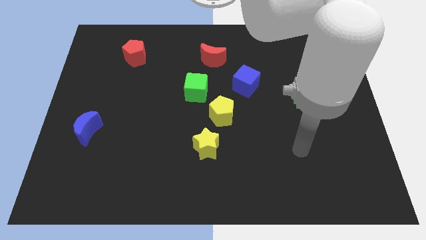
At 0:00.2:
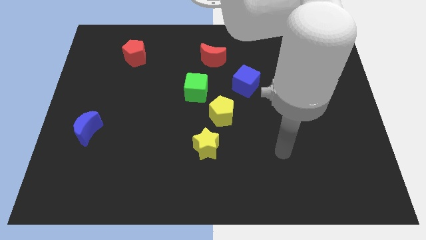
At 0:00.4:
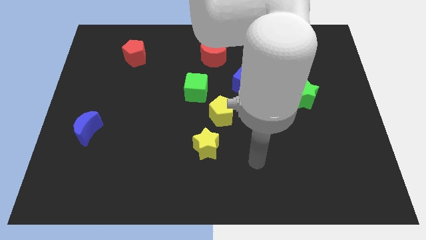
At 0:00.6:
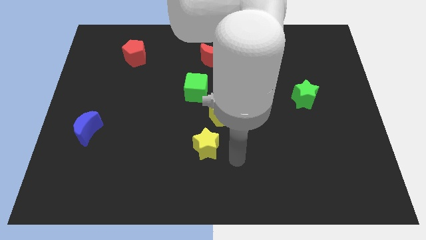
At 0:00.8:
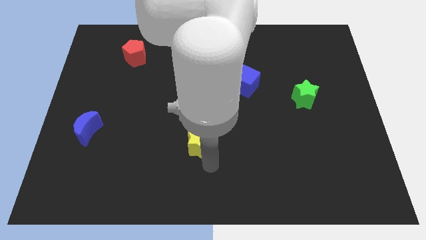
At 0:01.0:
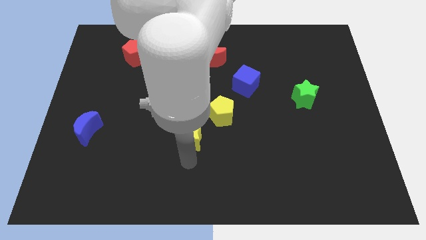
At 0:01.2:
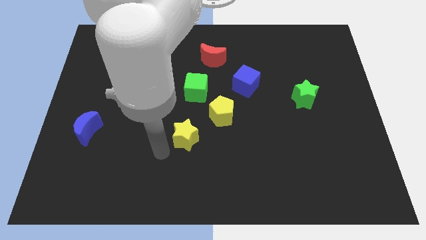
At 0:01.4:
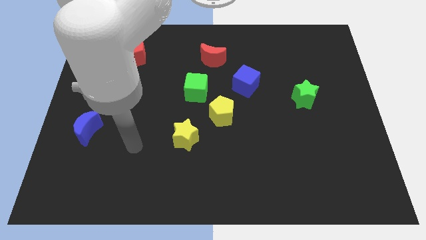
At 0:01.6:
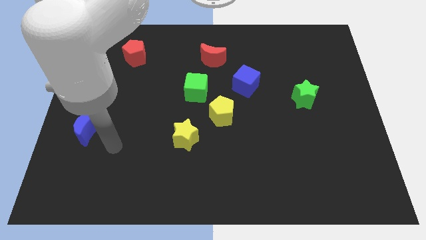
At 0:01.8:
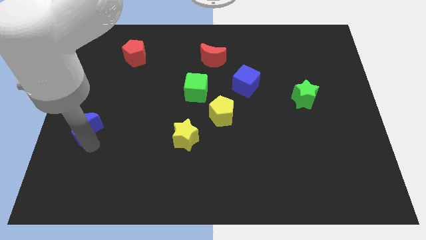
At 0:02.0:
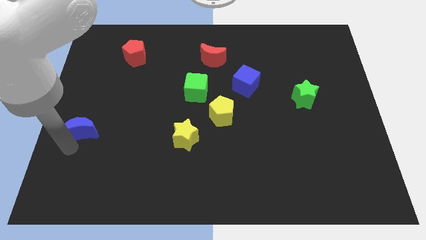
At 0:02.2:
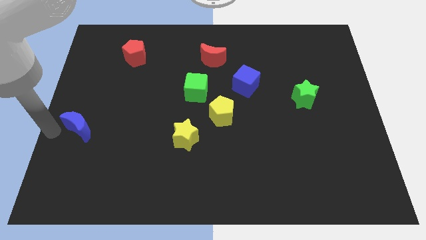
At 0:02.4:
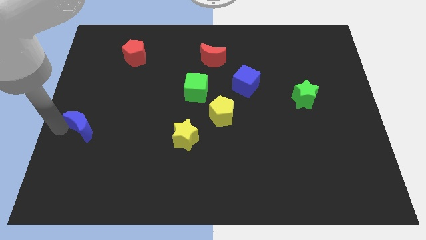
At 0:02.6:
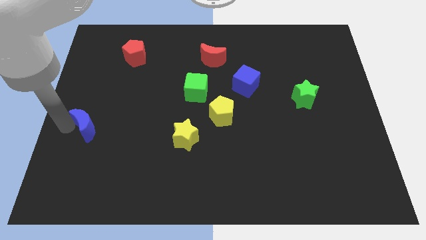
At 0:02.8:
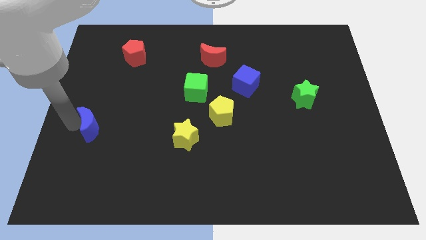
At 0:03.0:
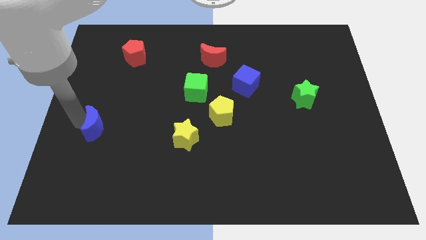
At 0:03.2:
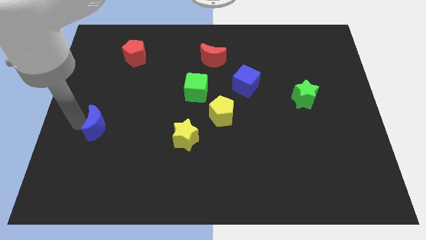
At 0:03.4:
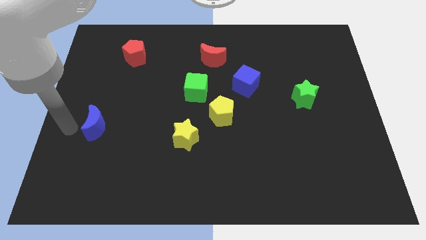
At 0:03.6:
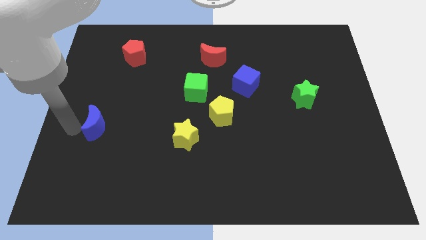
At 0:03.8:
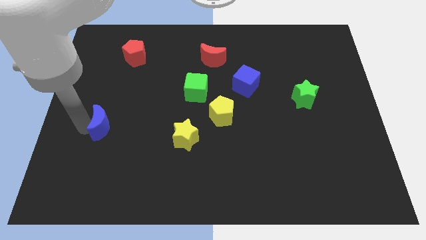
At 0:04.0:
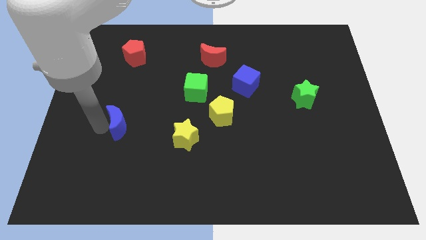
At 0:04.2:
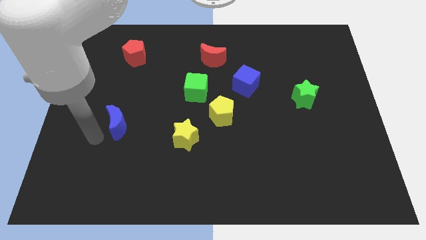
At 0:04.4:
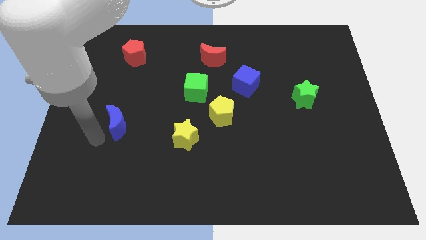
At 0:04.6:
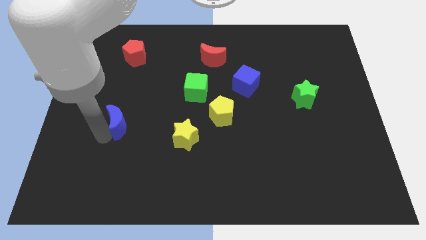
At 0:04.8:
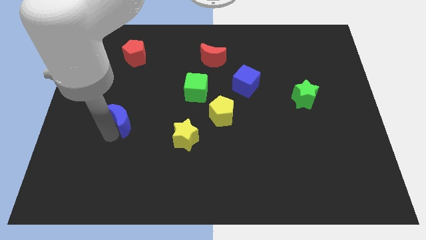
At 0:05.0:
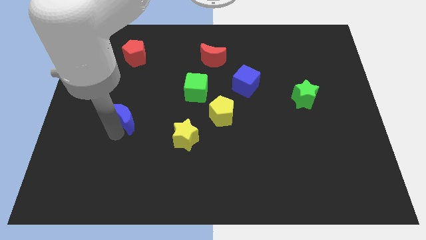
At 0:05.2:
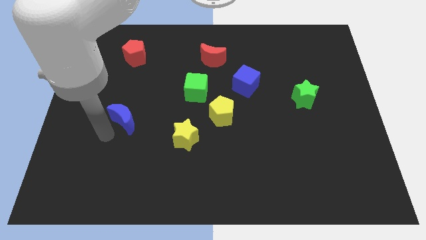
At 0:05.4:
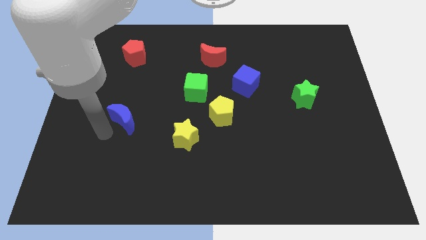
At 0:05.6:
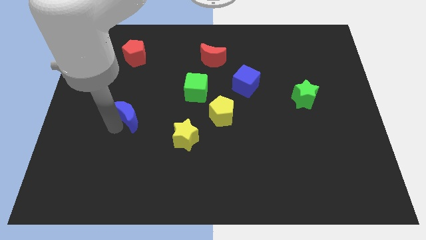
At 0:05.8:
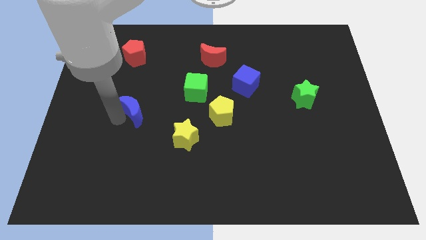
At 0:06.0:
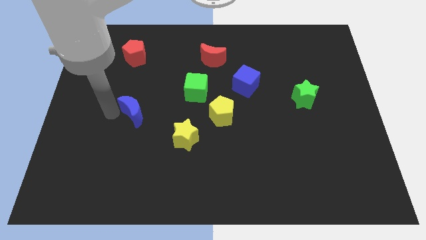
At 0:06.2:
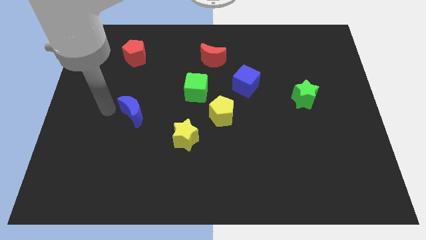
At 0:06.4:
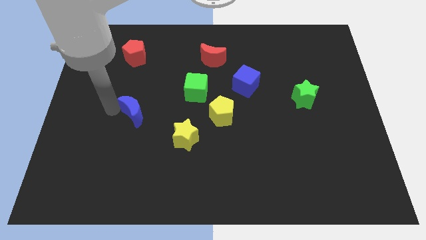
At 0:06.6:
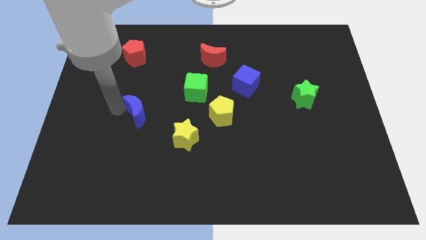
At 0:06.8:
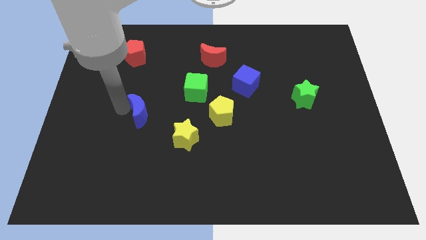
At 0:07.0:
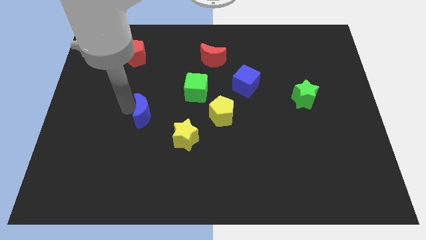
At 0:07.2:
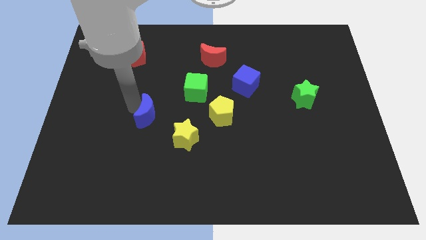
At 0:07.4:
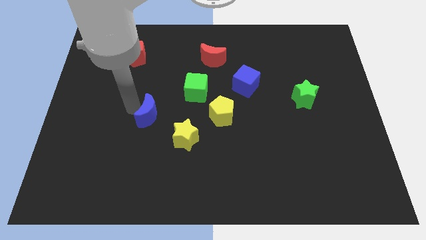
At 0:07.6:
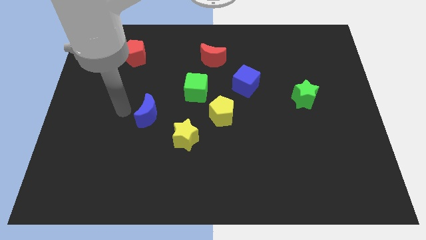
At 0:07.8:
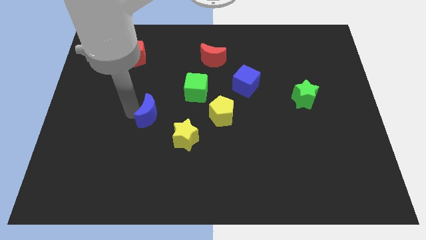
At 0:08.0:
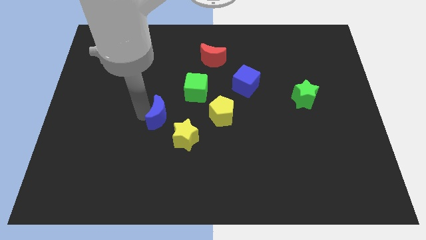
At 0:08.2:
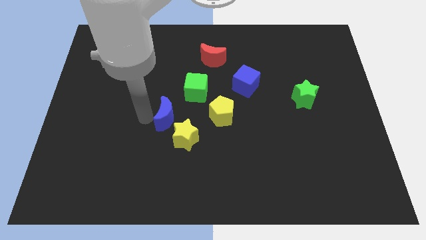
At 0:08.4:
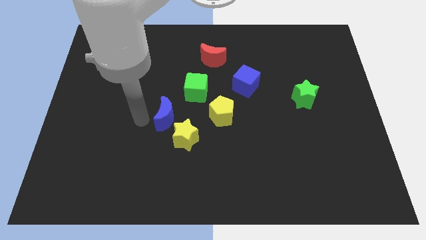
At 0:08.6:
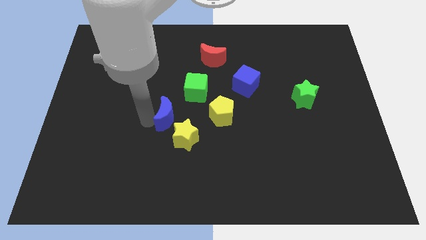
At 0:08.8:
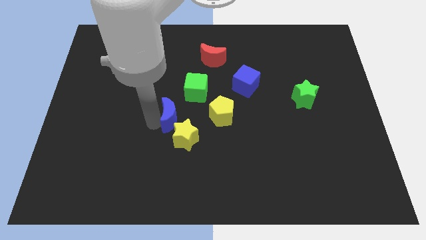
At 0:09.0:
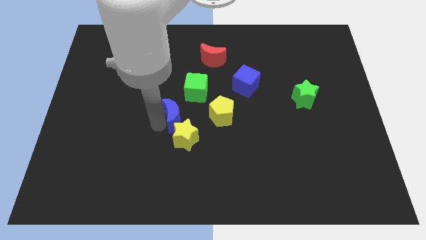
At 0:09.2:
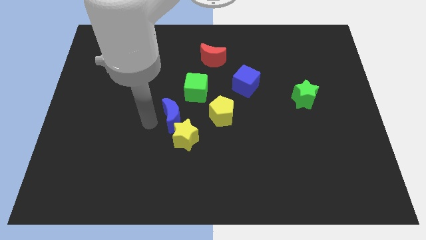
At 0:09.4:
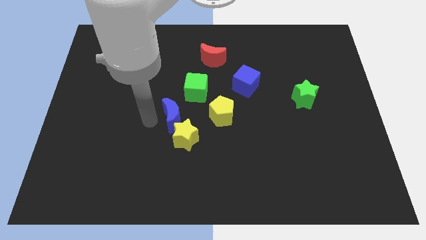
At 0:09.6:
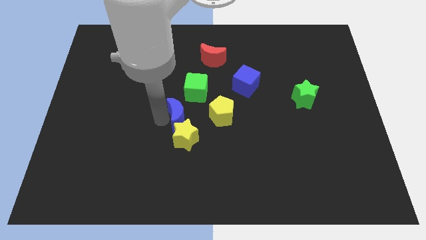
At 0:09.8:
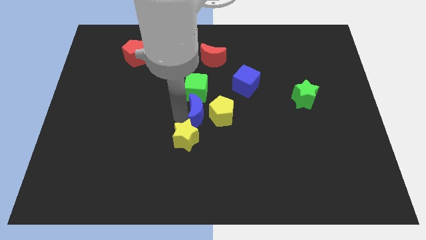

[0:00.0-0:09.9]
push the blue moon next to the yellow pentagon

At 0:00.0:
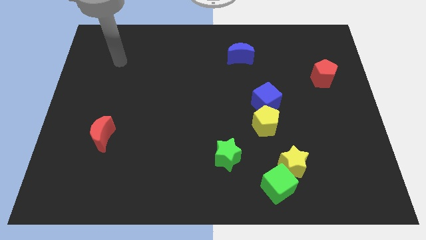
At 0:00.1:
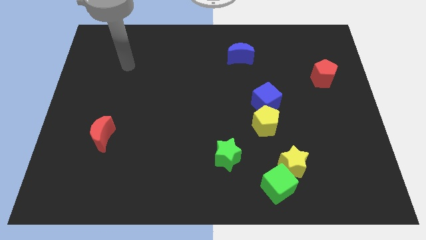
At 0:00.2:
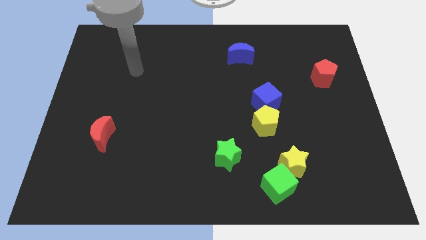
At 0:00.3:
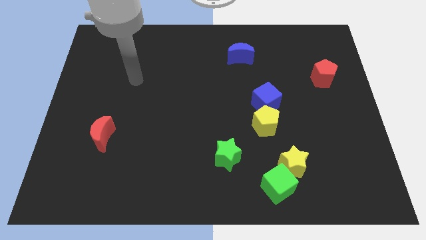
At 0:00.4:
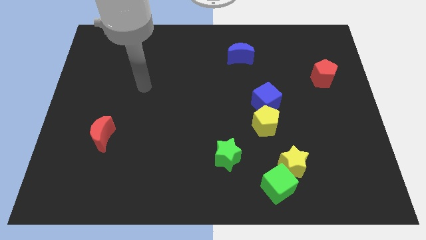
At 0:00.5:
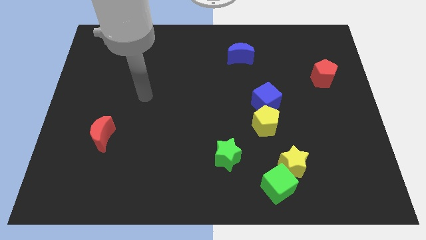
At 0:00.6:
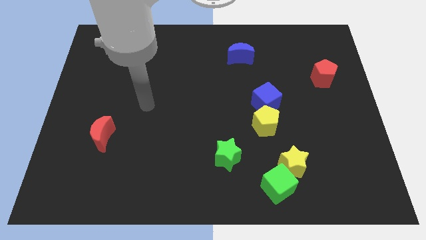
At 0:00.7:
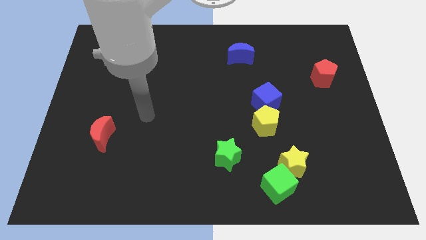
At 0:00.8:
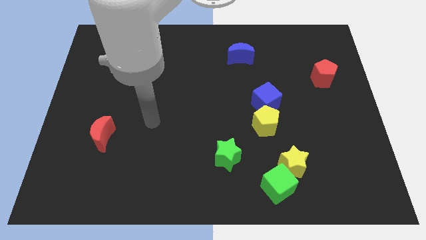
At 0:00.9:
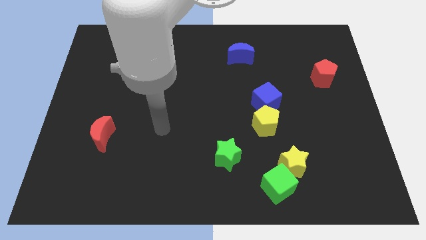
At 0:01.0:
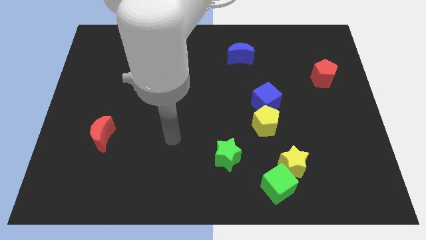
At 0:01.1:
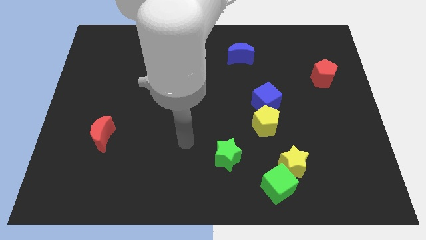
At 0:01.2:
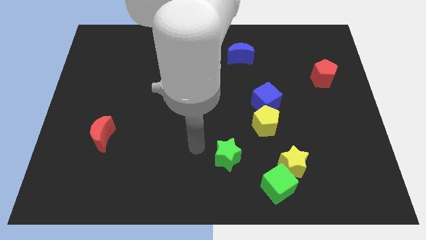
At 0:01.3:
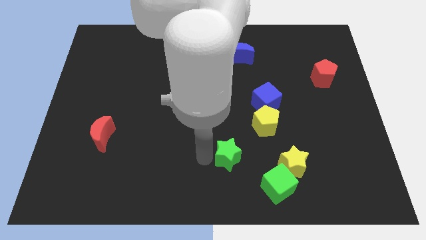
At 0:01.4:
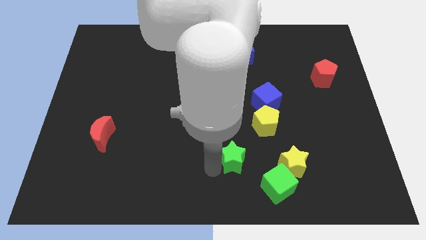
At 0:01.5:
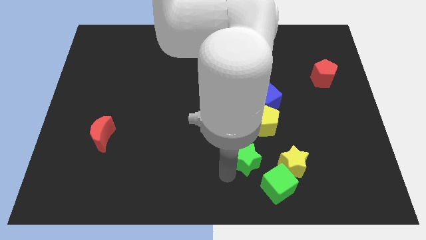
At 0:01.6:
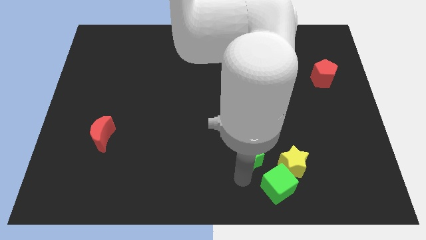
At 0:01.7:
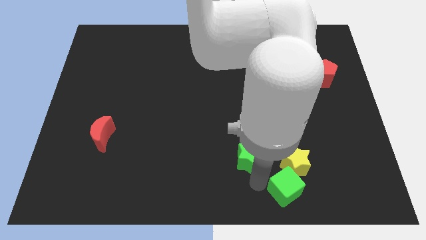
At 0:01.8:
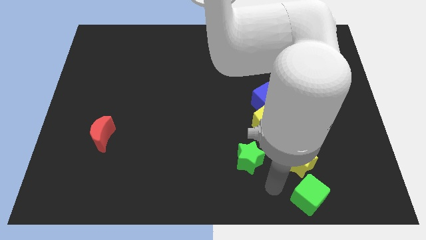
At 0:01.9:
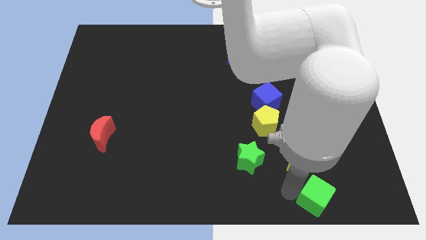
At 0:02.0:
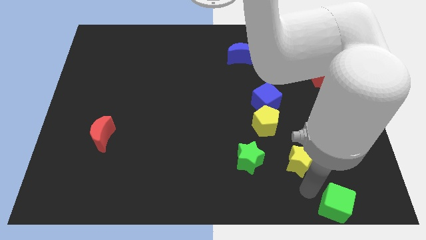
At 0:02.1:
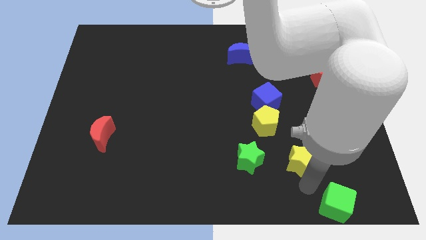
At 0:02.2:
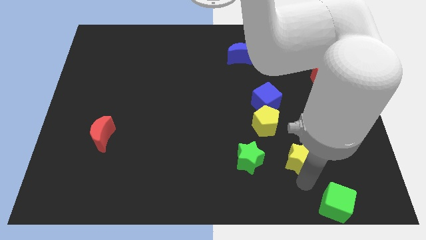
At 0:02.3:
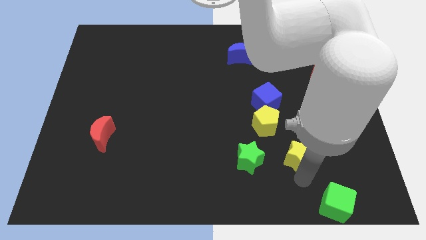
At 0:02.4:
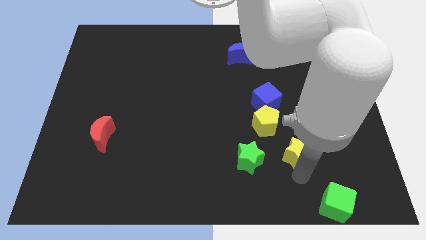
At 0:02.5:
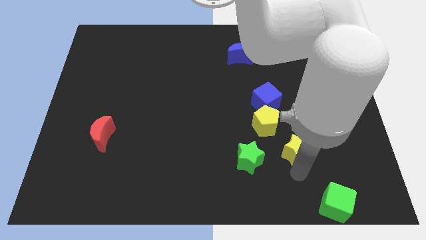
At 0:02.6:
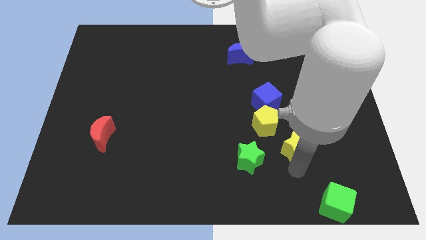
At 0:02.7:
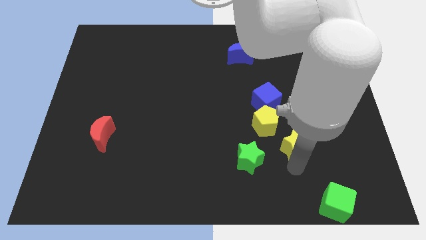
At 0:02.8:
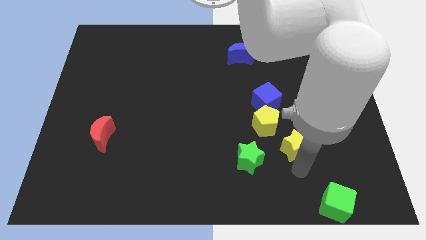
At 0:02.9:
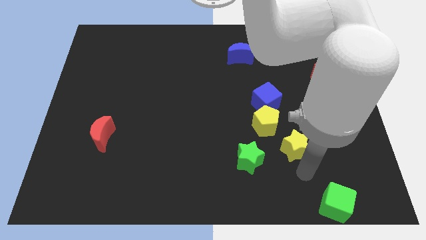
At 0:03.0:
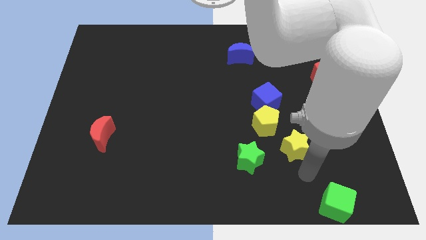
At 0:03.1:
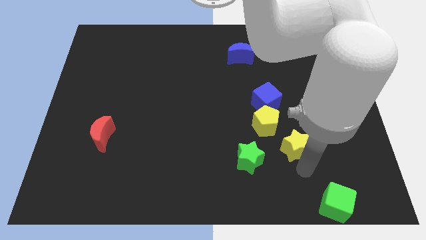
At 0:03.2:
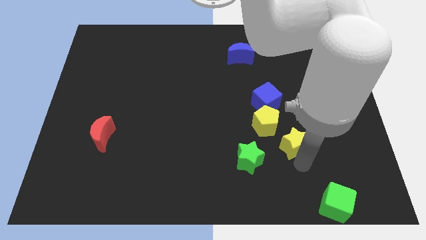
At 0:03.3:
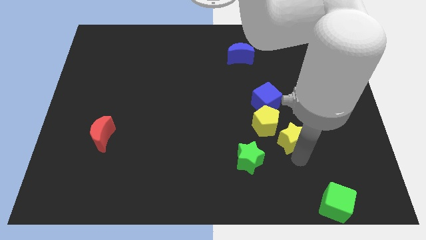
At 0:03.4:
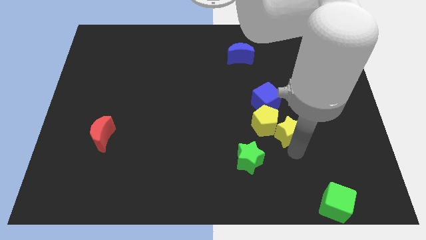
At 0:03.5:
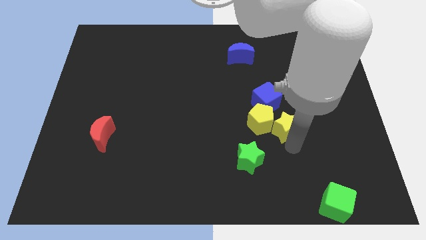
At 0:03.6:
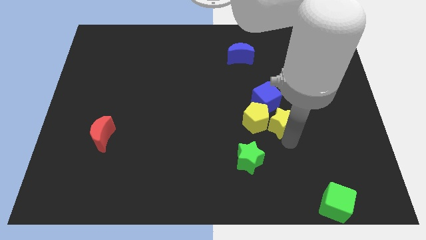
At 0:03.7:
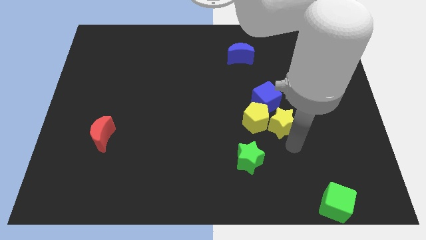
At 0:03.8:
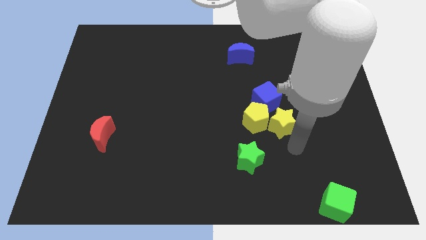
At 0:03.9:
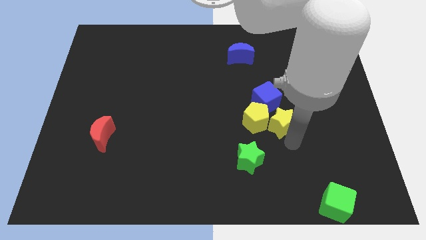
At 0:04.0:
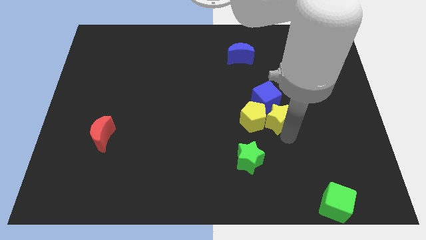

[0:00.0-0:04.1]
slide the yellow star next to the blue cube
